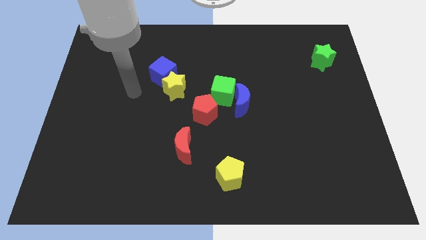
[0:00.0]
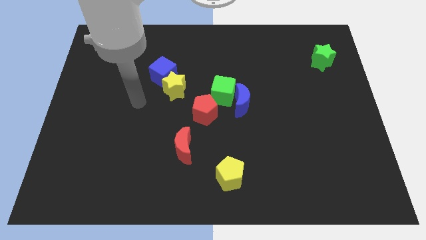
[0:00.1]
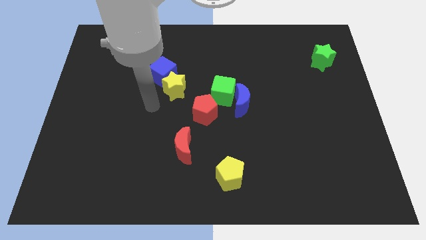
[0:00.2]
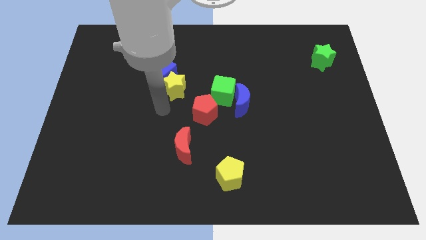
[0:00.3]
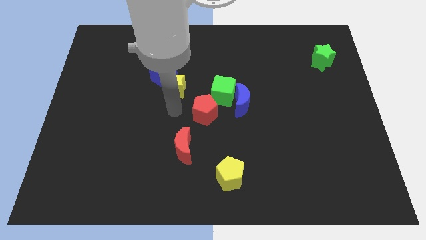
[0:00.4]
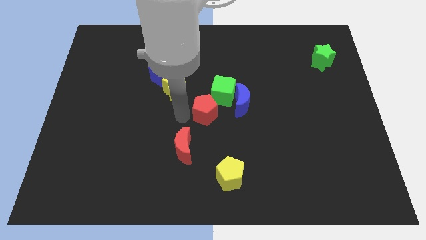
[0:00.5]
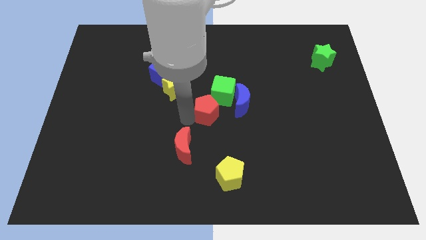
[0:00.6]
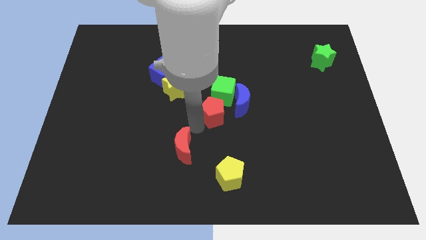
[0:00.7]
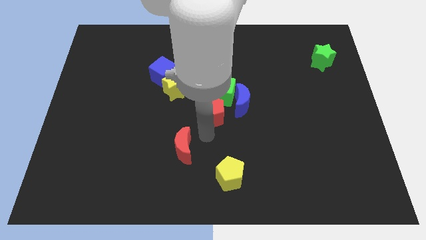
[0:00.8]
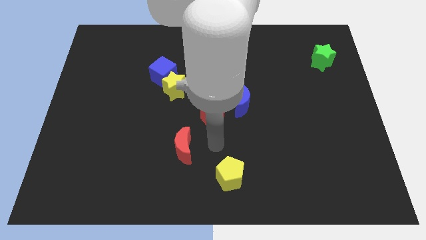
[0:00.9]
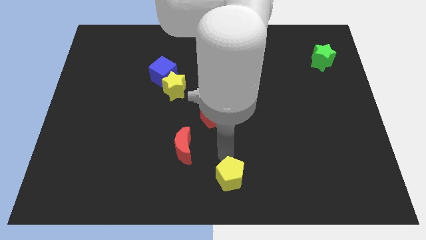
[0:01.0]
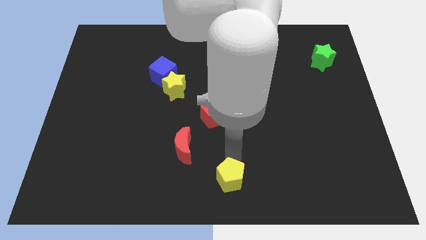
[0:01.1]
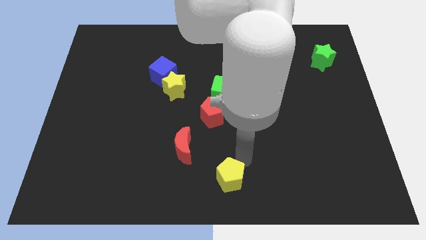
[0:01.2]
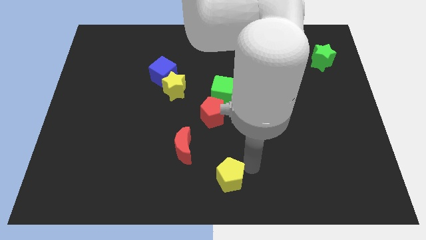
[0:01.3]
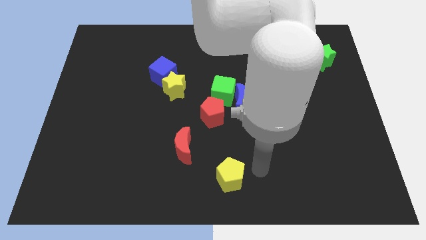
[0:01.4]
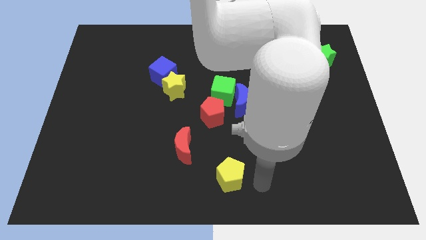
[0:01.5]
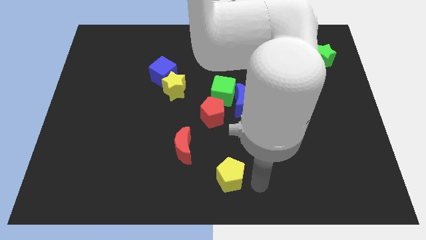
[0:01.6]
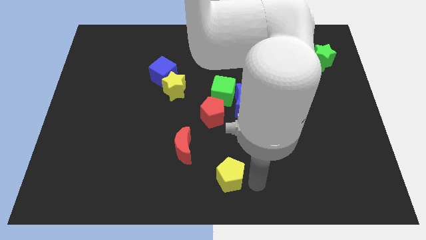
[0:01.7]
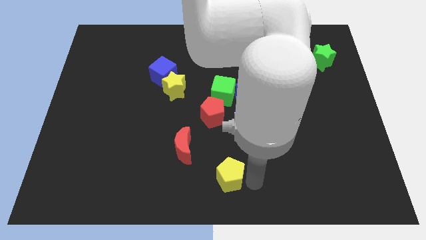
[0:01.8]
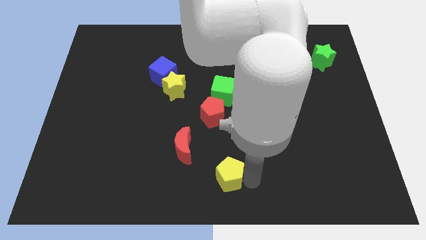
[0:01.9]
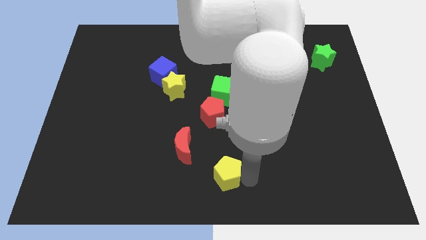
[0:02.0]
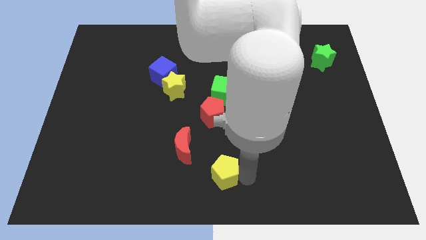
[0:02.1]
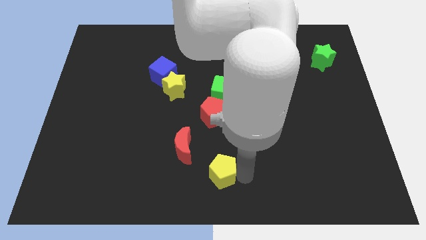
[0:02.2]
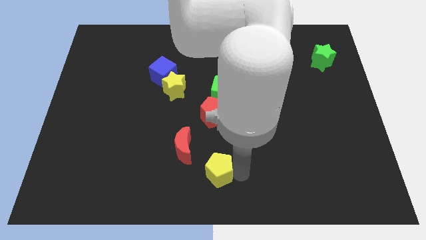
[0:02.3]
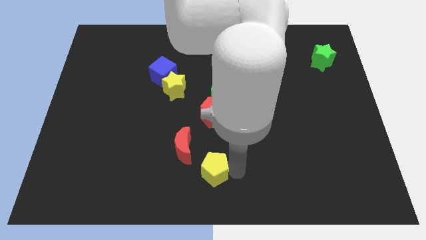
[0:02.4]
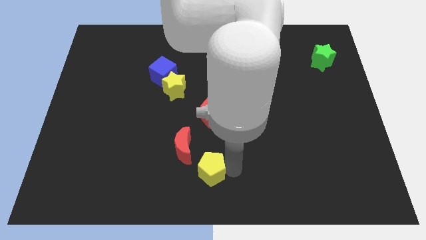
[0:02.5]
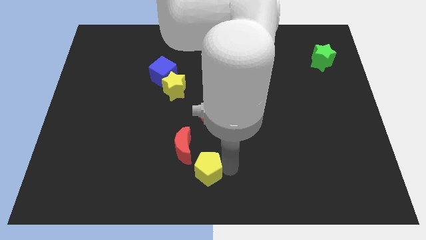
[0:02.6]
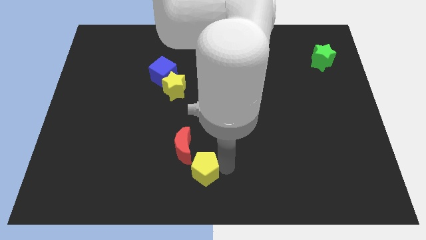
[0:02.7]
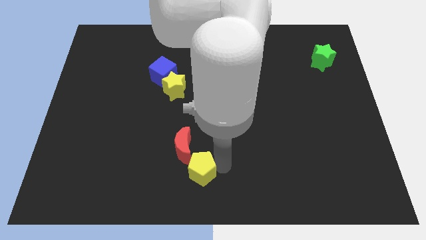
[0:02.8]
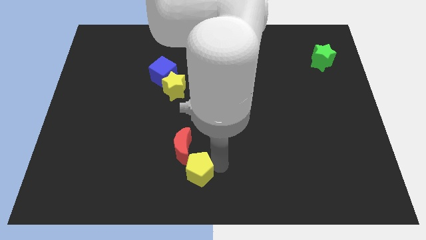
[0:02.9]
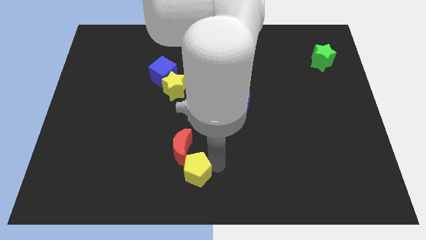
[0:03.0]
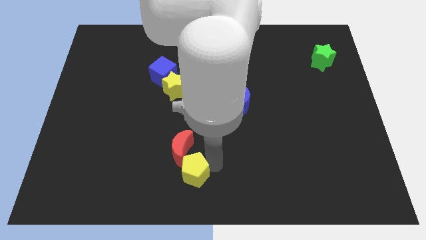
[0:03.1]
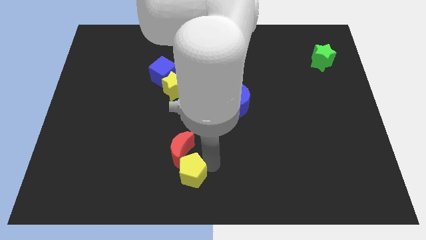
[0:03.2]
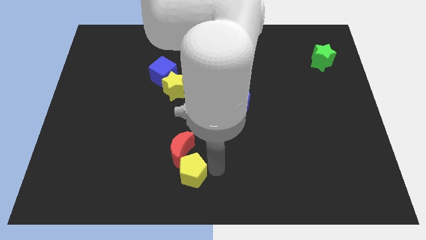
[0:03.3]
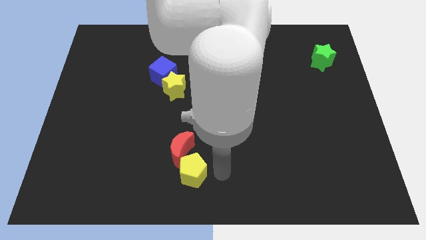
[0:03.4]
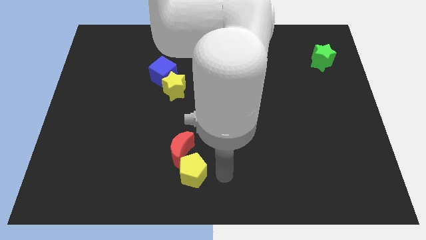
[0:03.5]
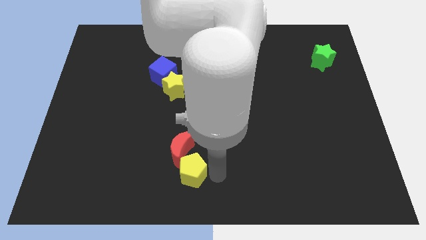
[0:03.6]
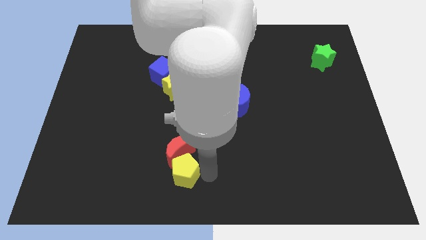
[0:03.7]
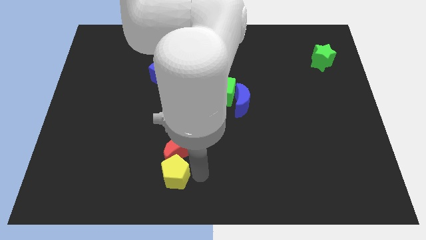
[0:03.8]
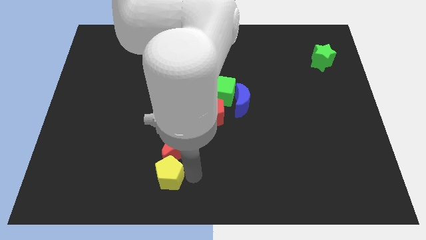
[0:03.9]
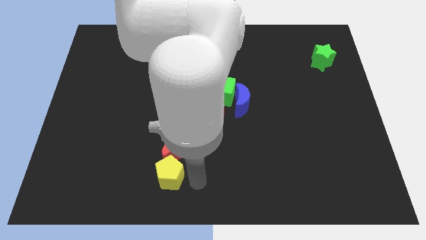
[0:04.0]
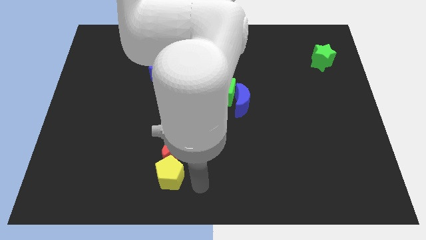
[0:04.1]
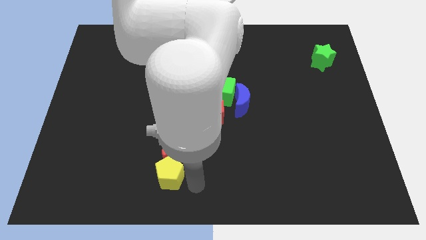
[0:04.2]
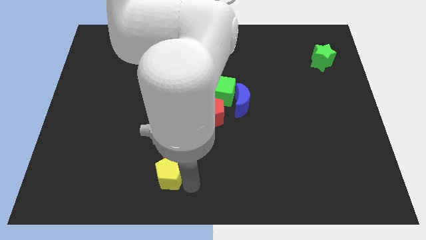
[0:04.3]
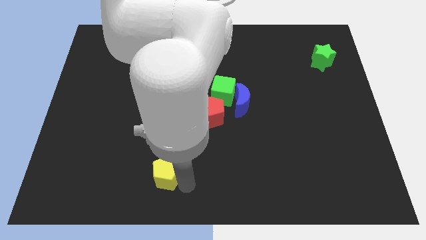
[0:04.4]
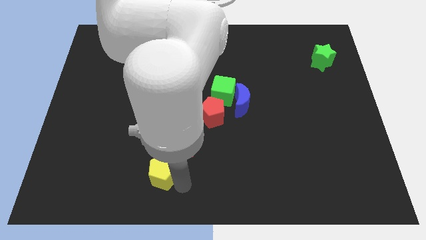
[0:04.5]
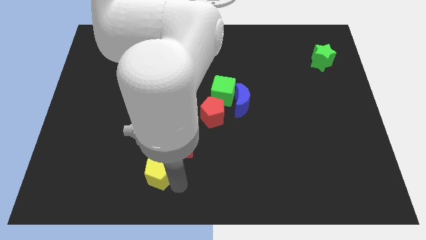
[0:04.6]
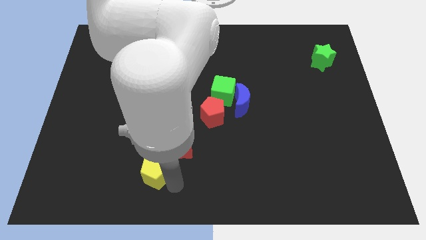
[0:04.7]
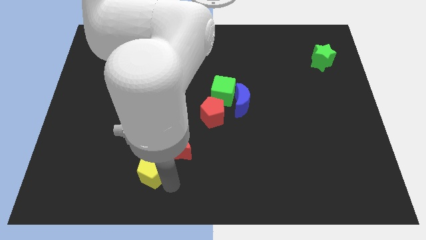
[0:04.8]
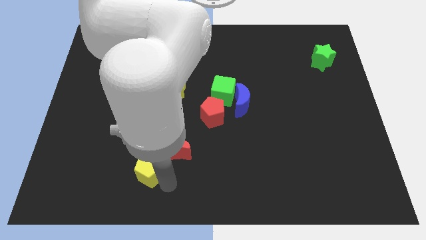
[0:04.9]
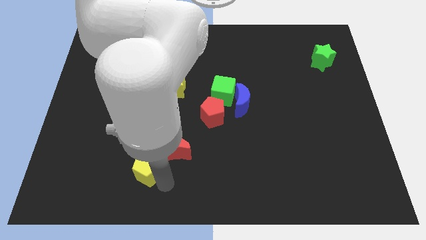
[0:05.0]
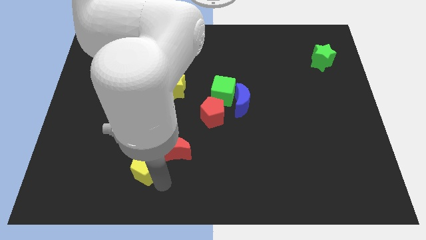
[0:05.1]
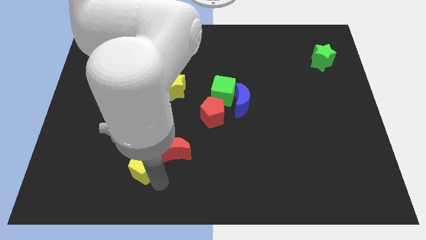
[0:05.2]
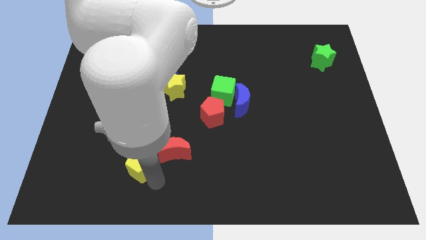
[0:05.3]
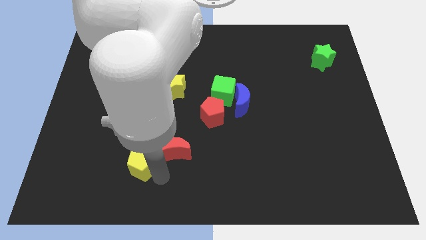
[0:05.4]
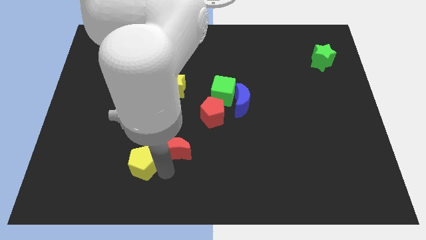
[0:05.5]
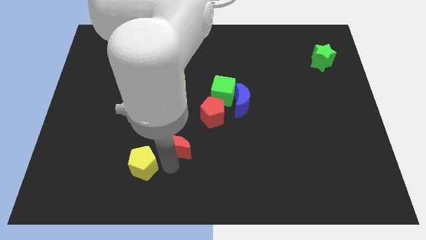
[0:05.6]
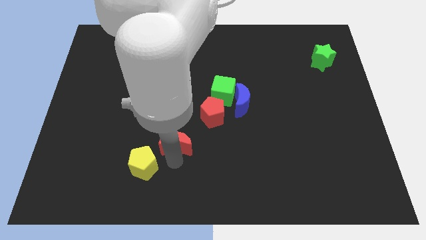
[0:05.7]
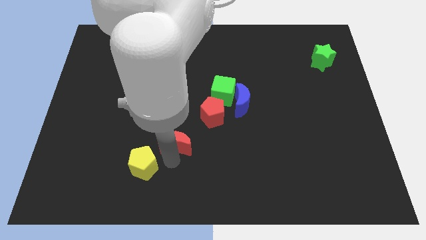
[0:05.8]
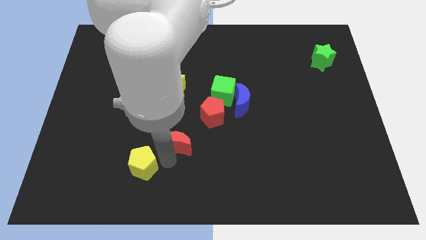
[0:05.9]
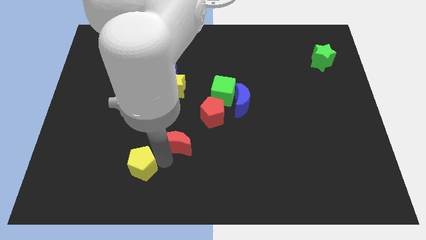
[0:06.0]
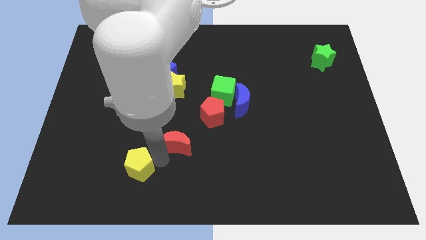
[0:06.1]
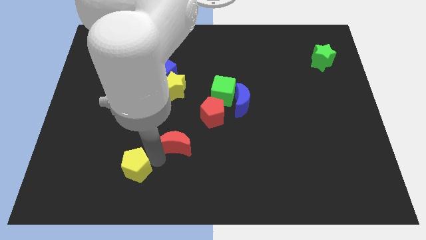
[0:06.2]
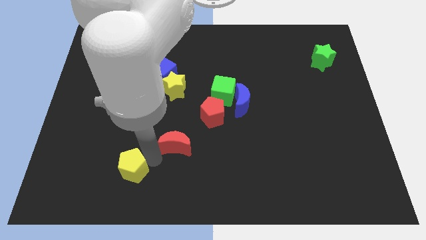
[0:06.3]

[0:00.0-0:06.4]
slide the yellow pentagon to the left

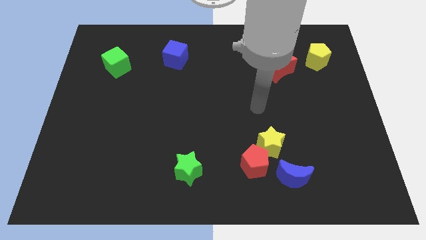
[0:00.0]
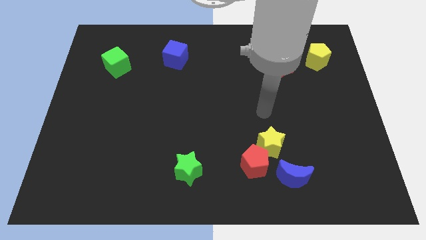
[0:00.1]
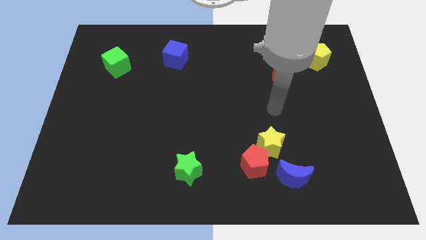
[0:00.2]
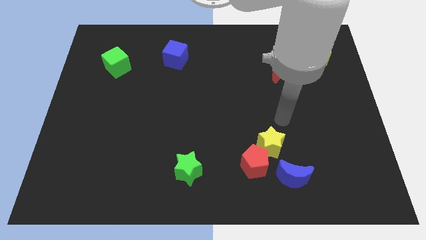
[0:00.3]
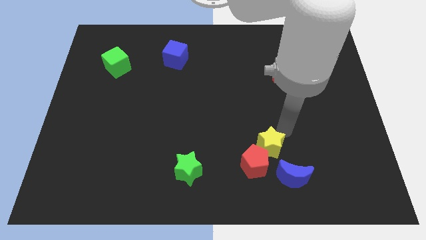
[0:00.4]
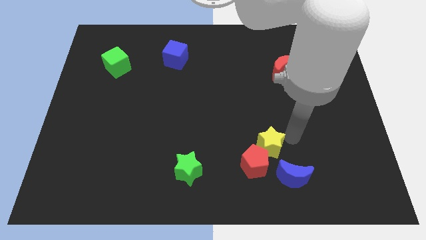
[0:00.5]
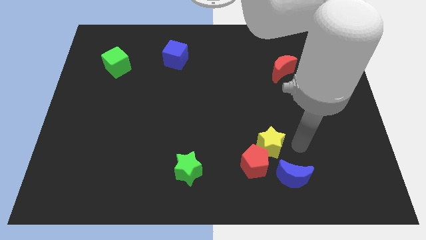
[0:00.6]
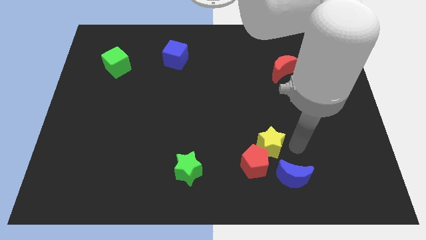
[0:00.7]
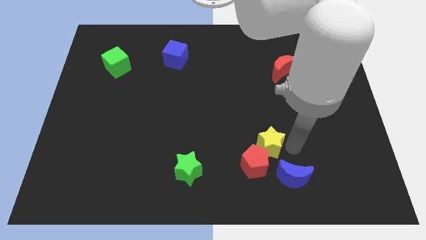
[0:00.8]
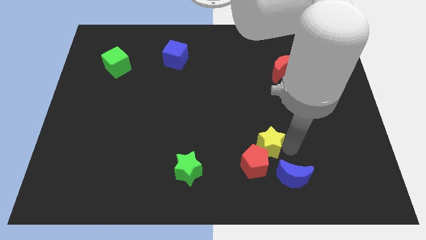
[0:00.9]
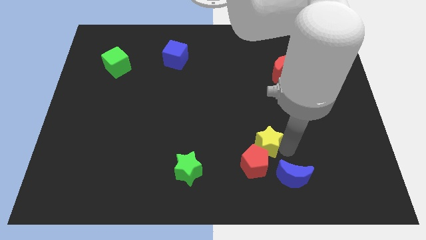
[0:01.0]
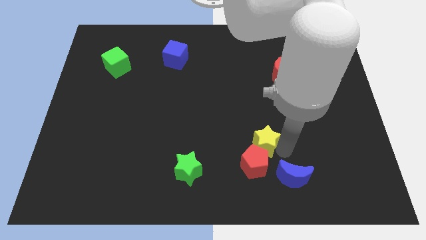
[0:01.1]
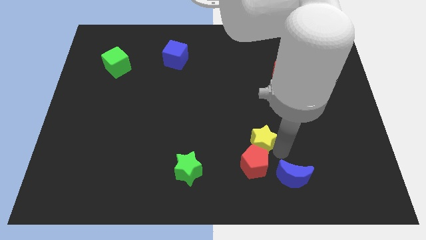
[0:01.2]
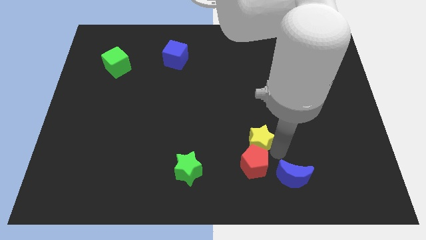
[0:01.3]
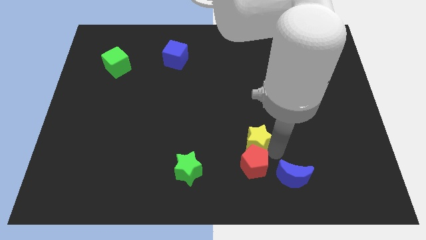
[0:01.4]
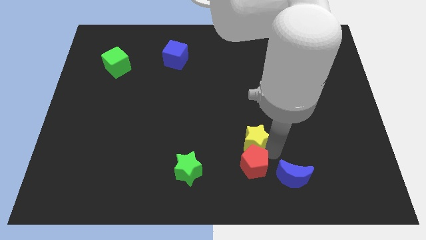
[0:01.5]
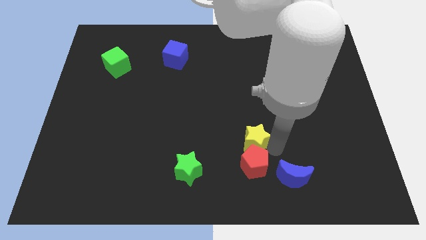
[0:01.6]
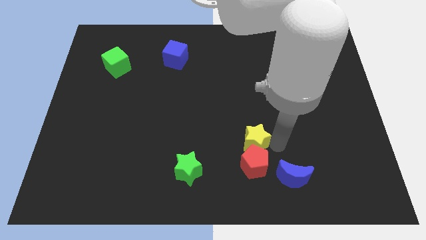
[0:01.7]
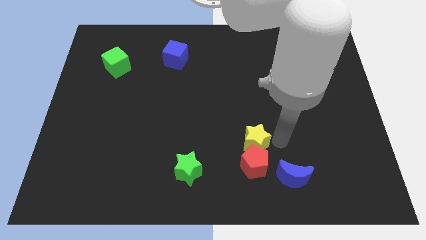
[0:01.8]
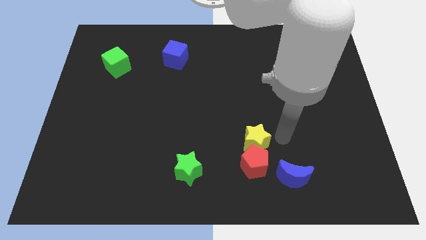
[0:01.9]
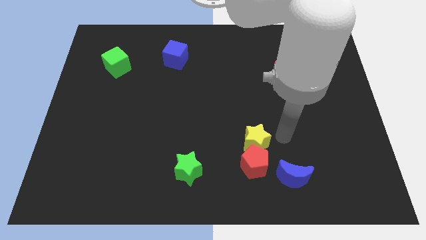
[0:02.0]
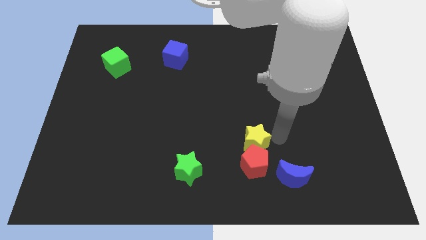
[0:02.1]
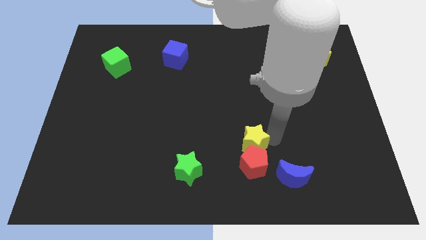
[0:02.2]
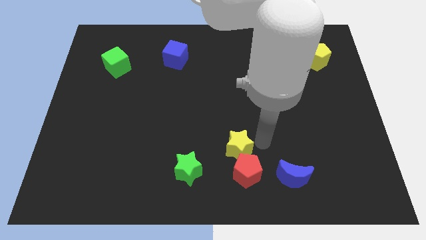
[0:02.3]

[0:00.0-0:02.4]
push the yellow star left a bit
